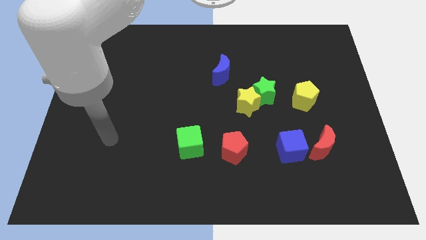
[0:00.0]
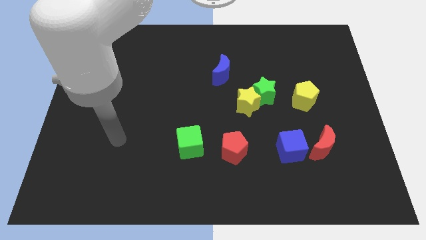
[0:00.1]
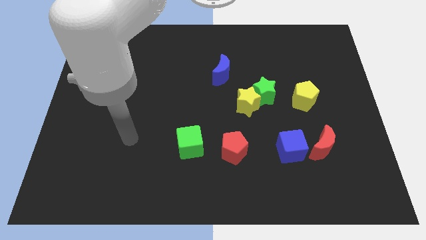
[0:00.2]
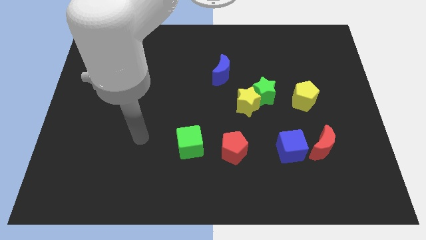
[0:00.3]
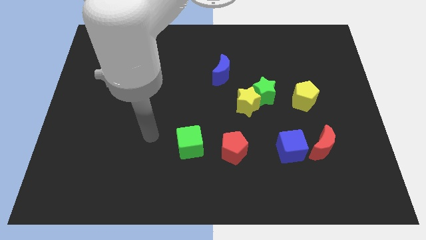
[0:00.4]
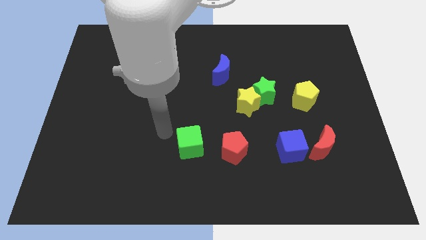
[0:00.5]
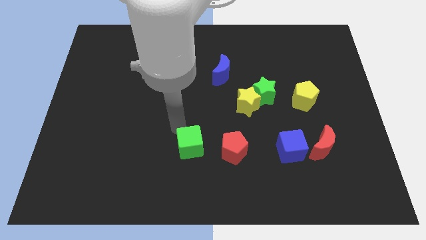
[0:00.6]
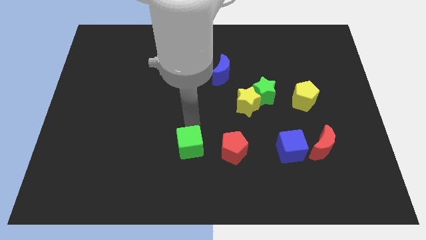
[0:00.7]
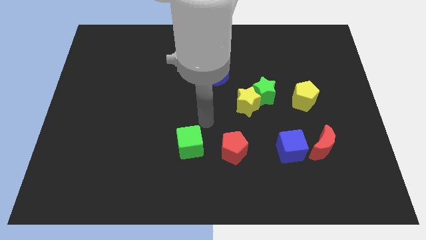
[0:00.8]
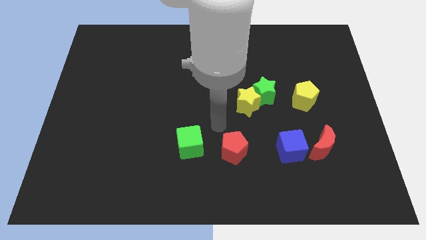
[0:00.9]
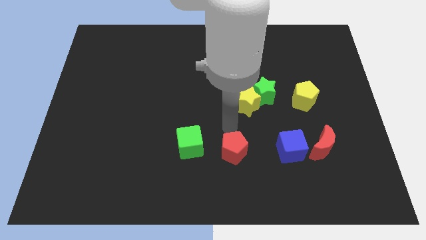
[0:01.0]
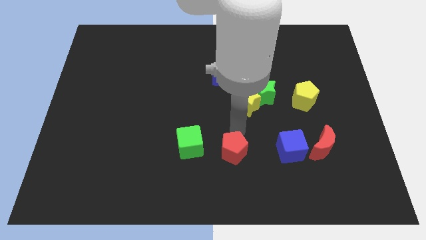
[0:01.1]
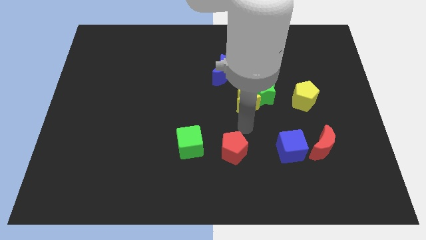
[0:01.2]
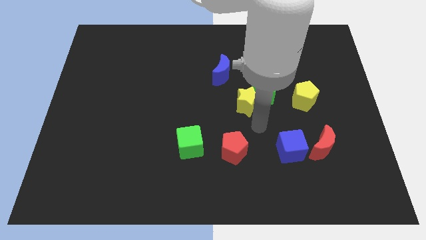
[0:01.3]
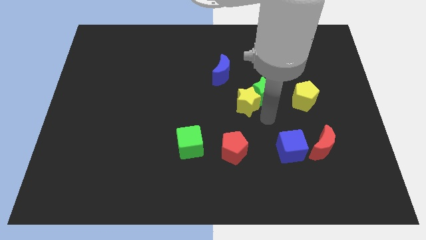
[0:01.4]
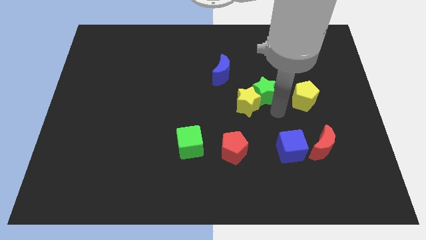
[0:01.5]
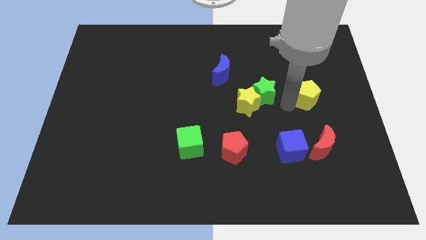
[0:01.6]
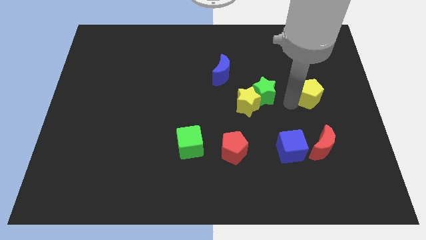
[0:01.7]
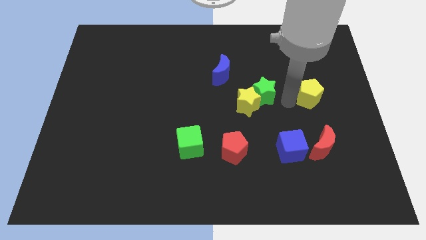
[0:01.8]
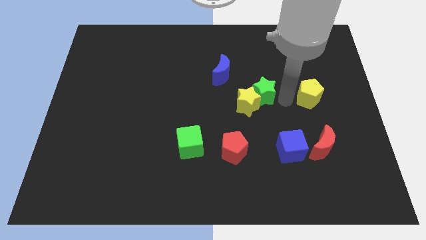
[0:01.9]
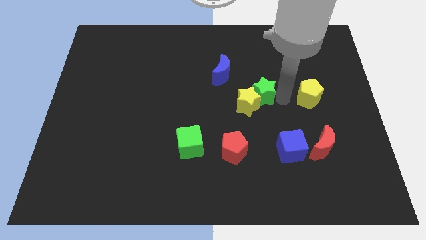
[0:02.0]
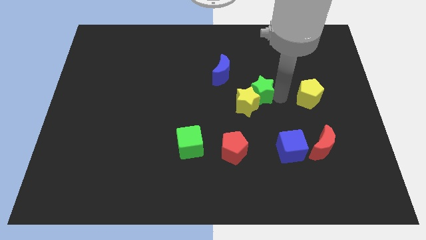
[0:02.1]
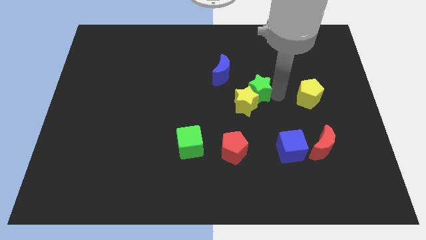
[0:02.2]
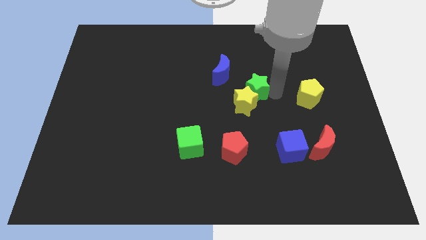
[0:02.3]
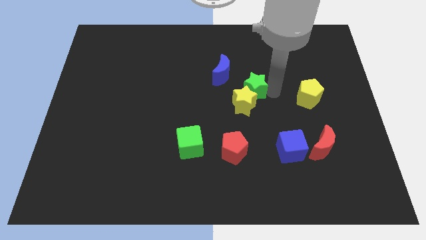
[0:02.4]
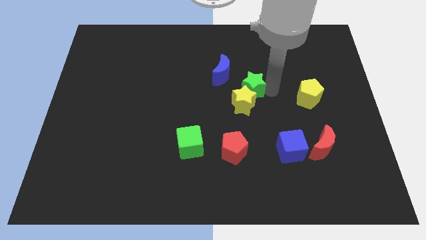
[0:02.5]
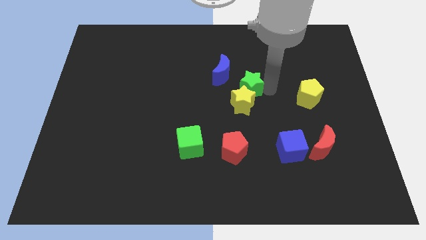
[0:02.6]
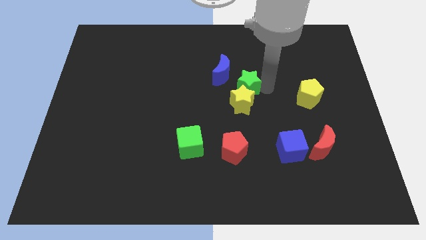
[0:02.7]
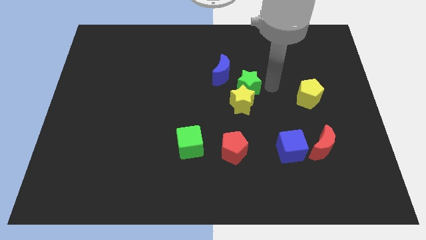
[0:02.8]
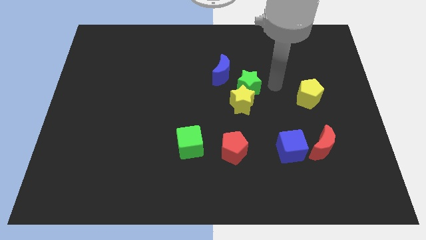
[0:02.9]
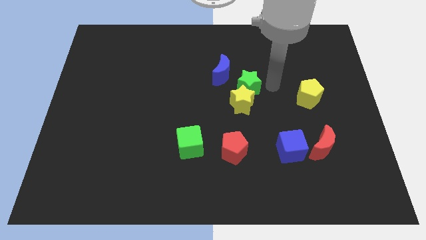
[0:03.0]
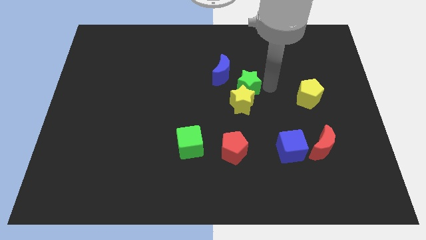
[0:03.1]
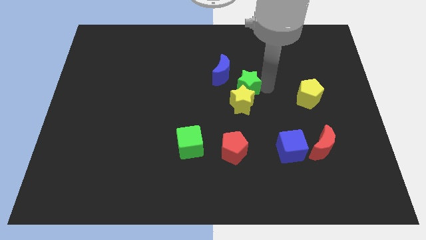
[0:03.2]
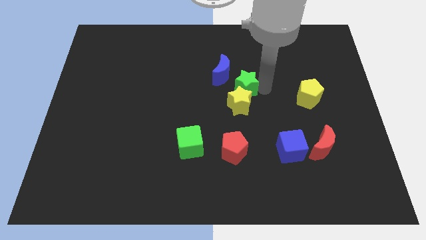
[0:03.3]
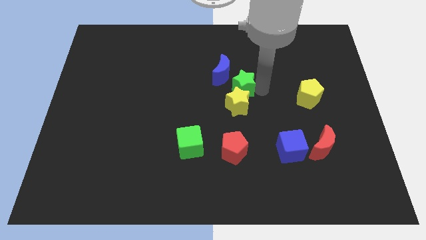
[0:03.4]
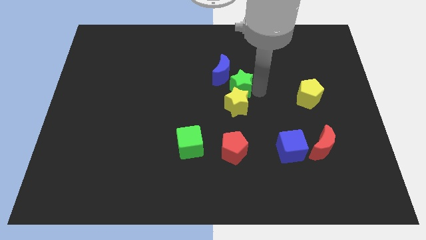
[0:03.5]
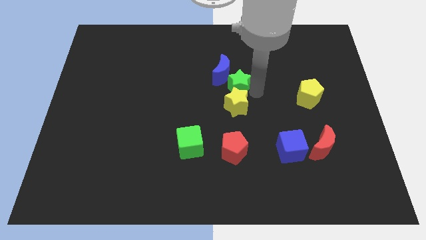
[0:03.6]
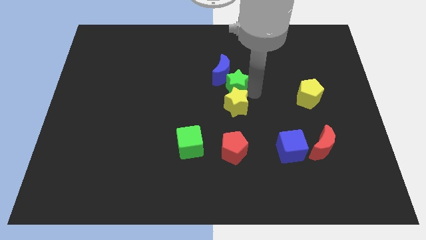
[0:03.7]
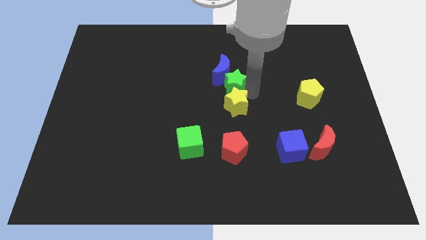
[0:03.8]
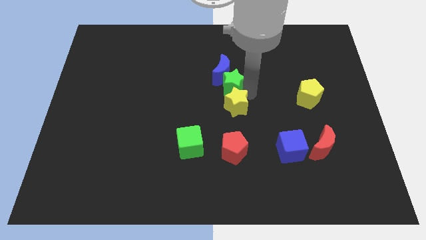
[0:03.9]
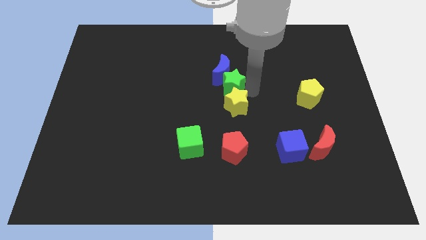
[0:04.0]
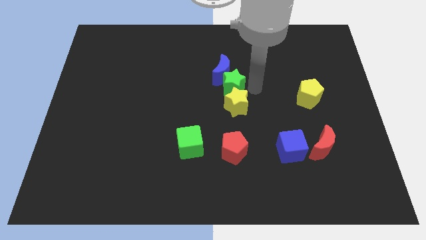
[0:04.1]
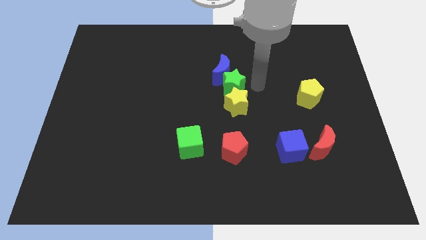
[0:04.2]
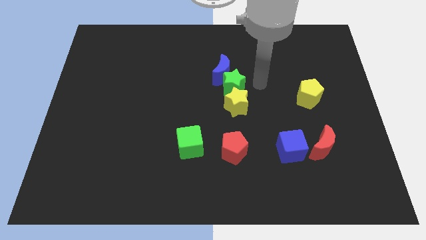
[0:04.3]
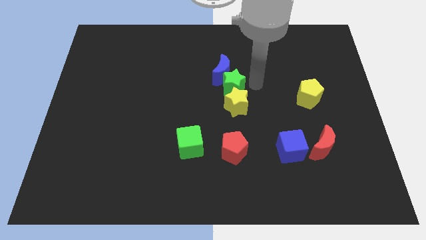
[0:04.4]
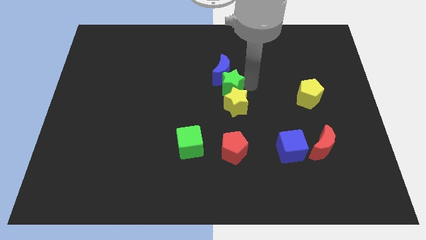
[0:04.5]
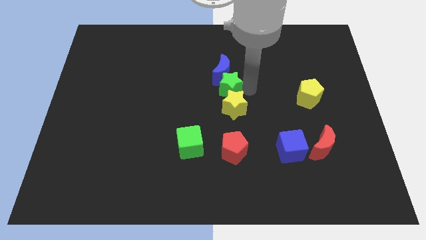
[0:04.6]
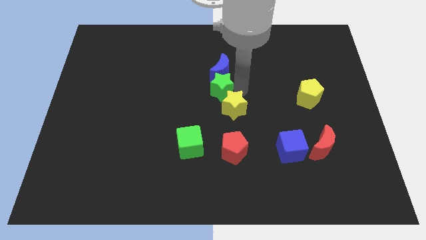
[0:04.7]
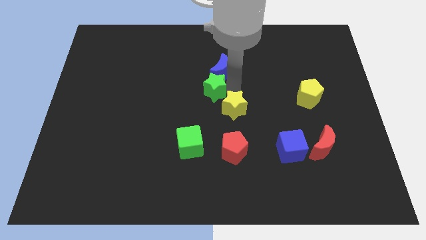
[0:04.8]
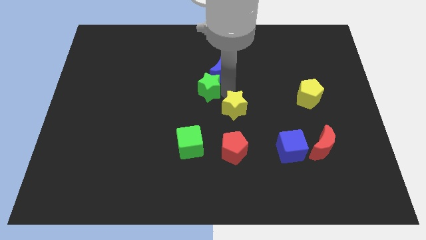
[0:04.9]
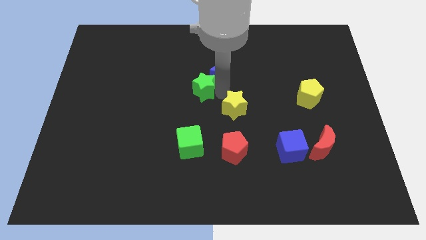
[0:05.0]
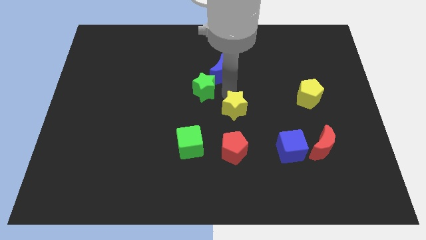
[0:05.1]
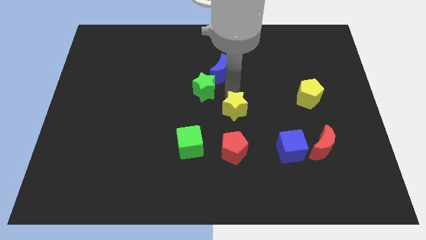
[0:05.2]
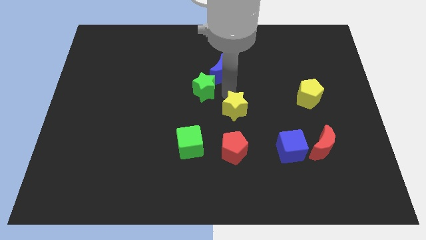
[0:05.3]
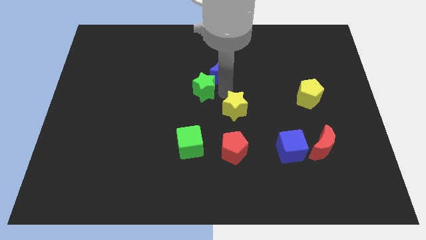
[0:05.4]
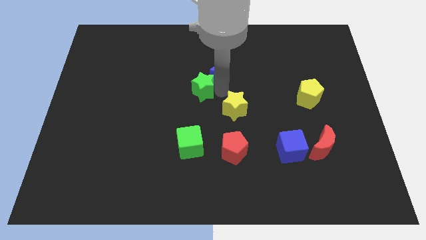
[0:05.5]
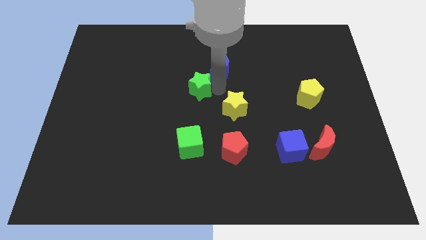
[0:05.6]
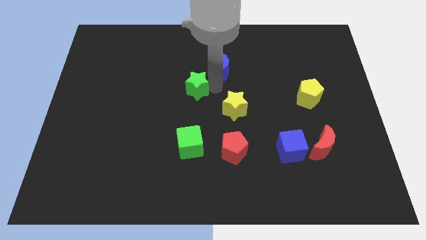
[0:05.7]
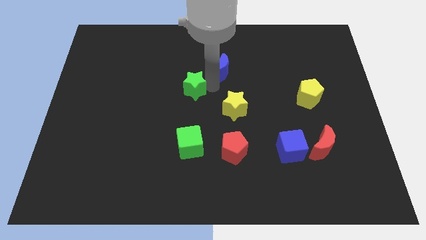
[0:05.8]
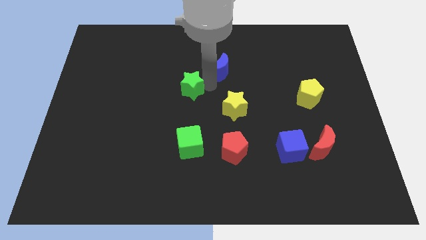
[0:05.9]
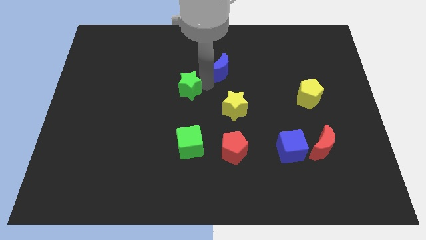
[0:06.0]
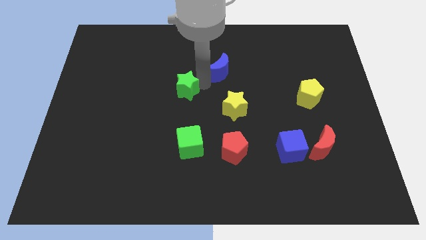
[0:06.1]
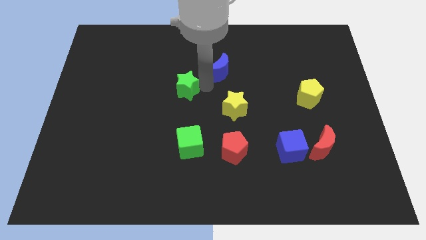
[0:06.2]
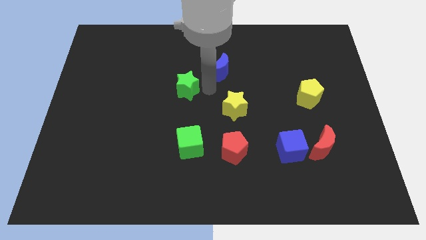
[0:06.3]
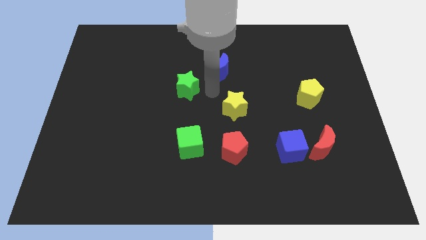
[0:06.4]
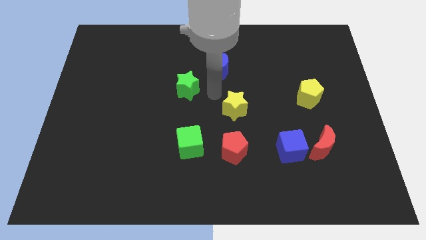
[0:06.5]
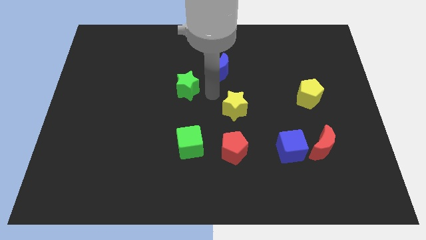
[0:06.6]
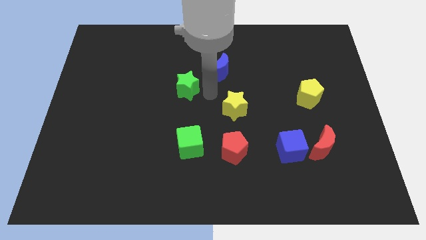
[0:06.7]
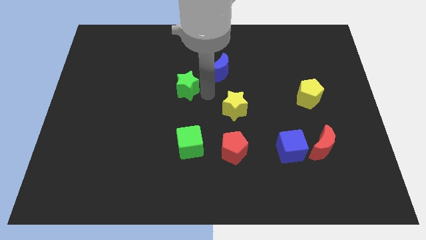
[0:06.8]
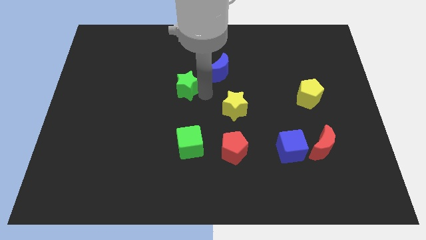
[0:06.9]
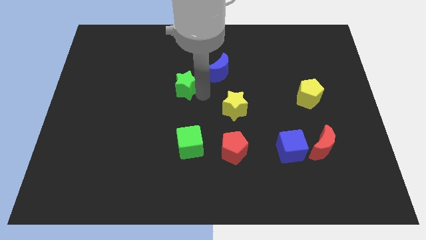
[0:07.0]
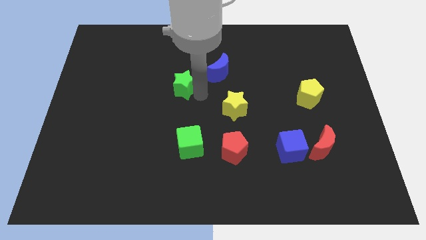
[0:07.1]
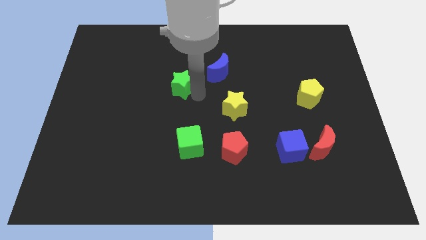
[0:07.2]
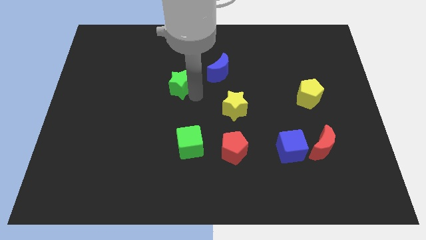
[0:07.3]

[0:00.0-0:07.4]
push the green star left
